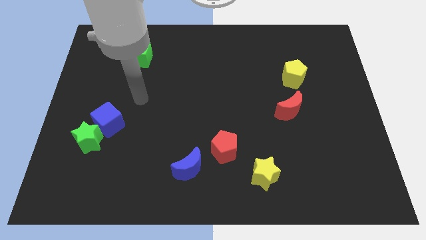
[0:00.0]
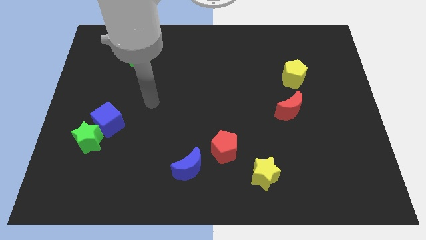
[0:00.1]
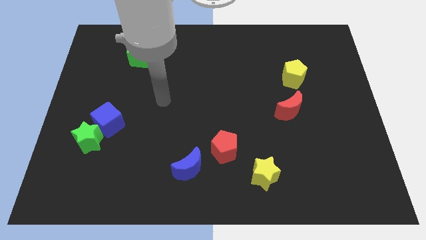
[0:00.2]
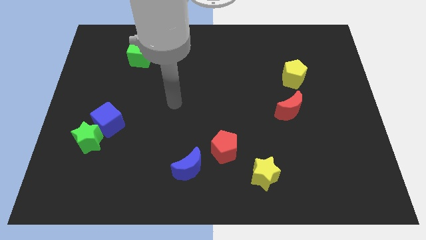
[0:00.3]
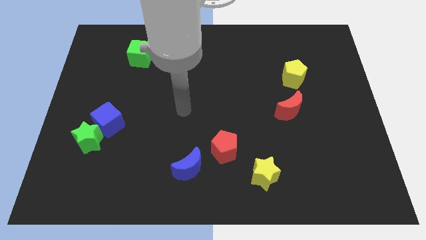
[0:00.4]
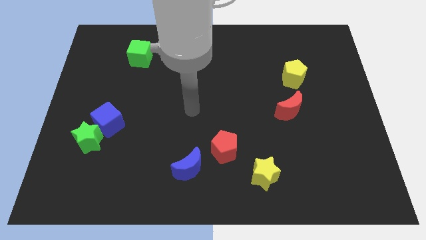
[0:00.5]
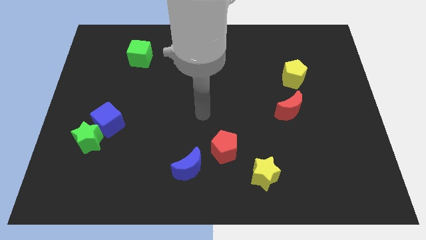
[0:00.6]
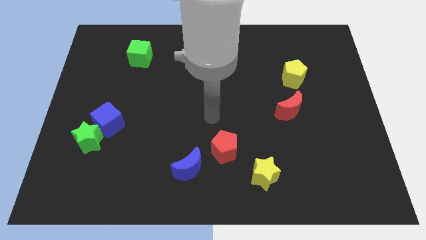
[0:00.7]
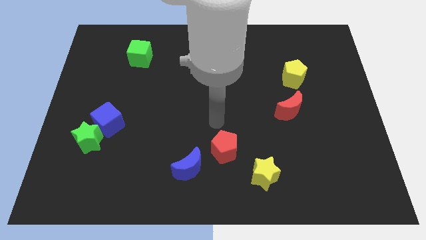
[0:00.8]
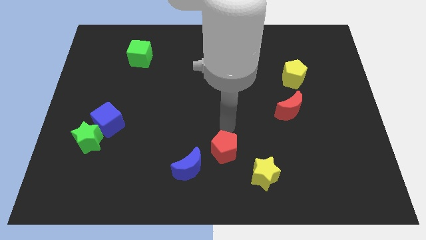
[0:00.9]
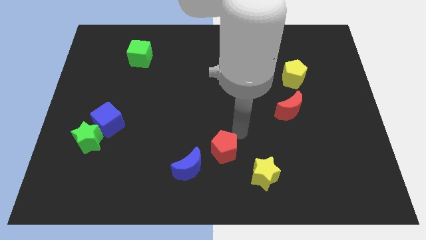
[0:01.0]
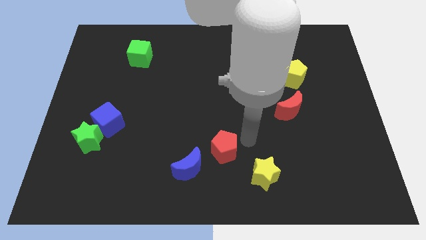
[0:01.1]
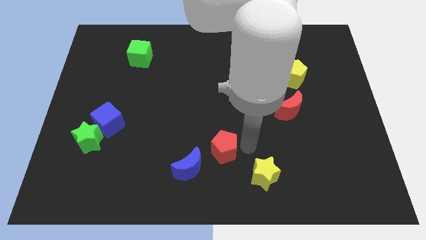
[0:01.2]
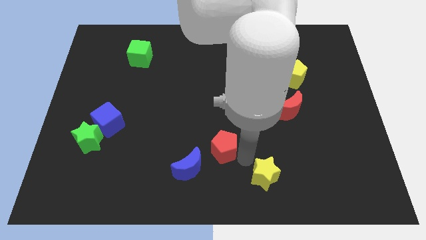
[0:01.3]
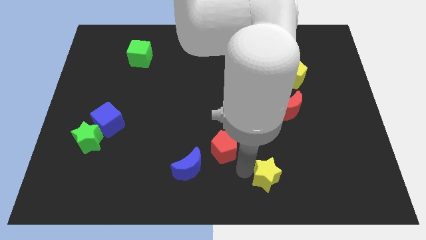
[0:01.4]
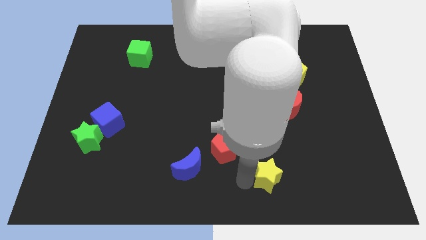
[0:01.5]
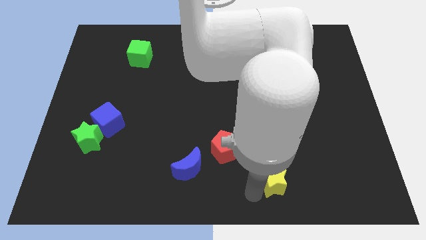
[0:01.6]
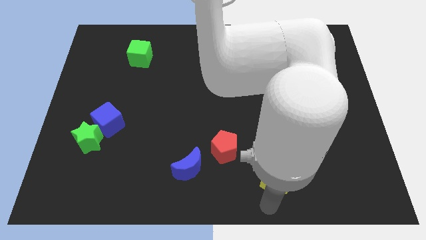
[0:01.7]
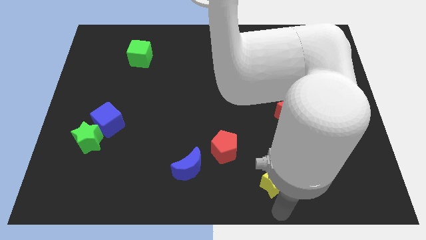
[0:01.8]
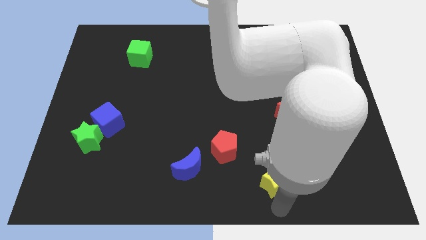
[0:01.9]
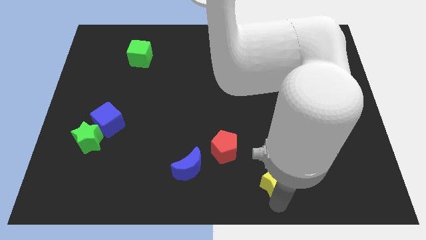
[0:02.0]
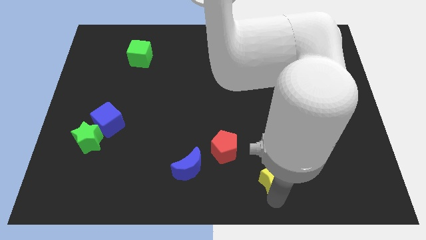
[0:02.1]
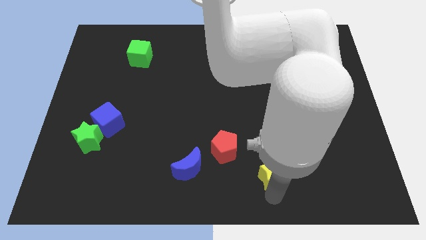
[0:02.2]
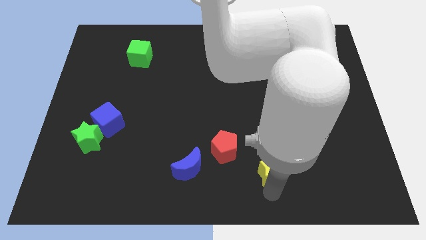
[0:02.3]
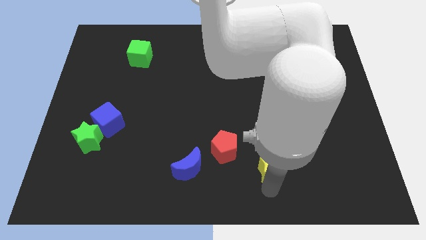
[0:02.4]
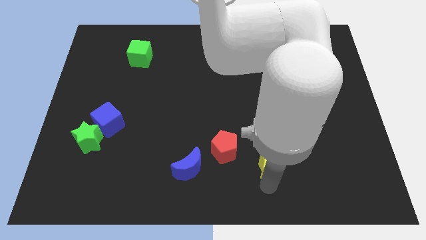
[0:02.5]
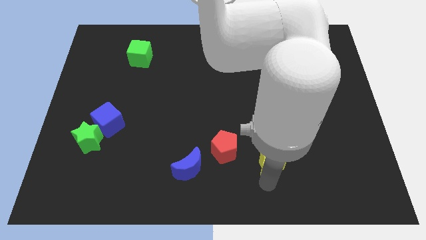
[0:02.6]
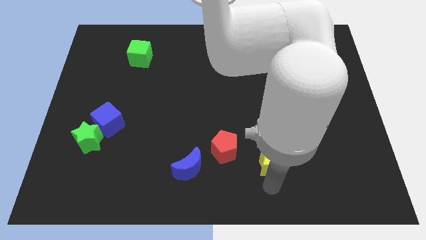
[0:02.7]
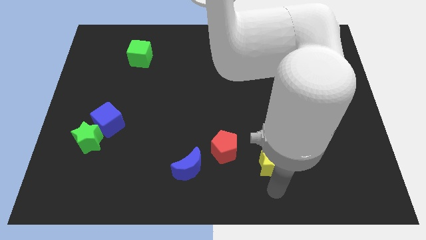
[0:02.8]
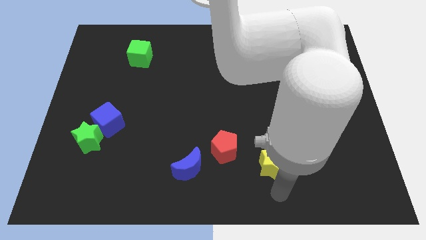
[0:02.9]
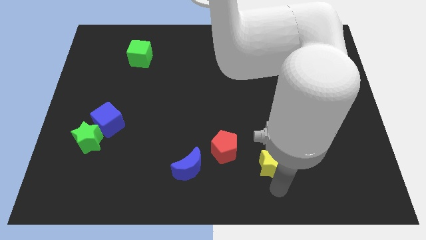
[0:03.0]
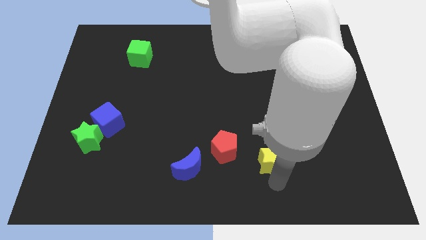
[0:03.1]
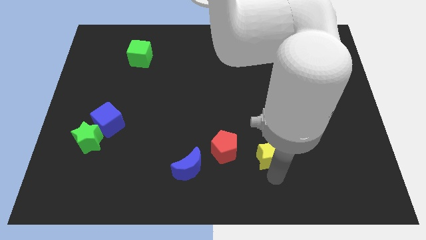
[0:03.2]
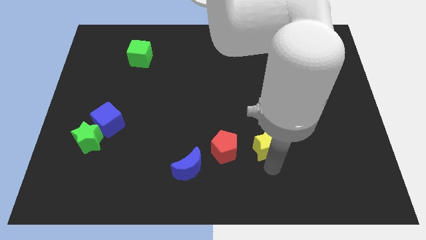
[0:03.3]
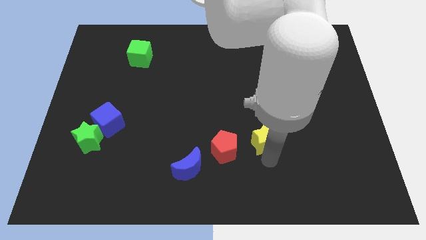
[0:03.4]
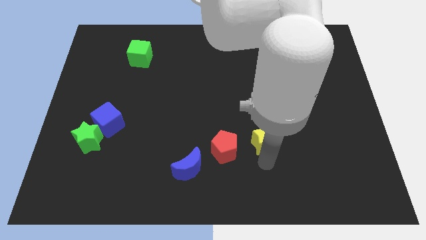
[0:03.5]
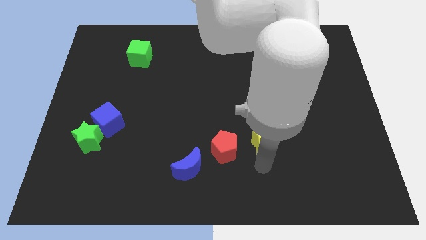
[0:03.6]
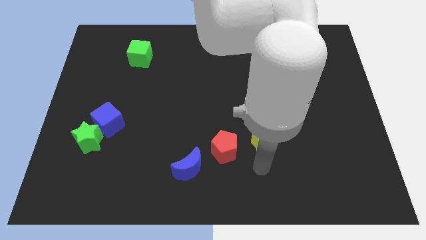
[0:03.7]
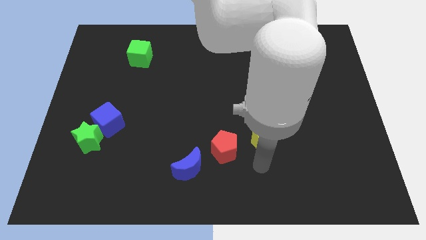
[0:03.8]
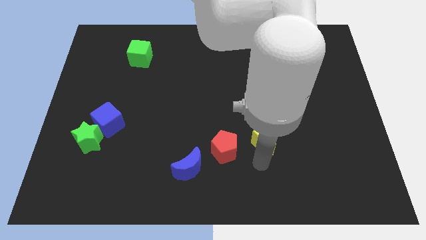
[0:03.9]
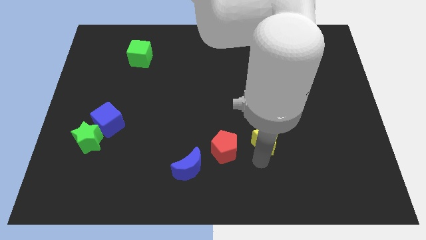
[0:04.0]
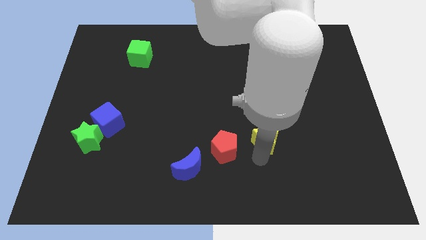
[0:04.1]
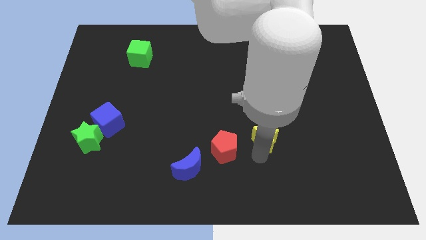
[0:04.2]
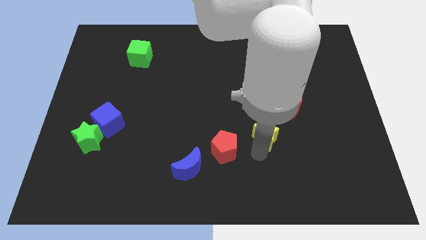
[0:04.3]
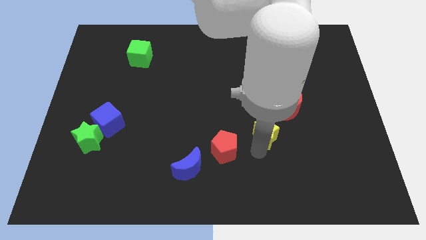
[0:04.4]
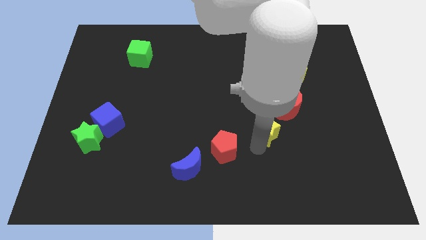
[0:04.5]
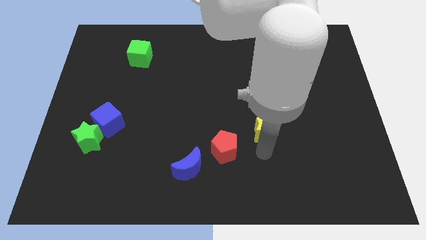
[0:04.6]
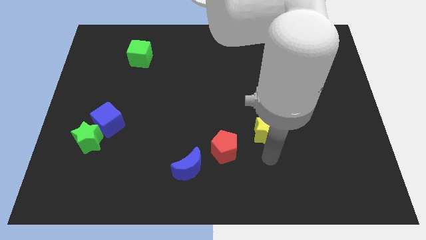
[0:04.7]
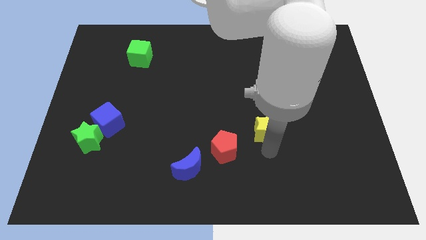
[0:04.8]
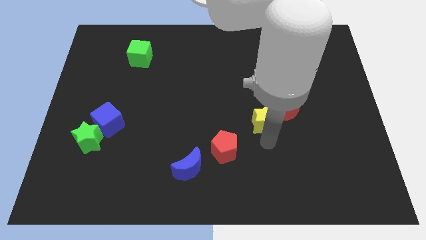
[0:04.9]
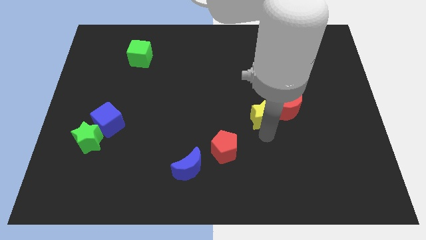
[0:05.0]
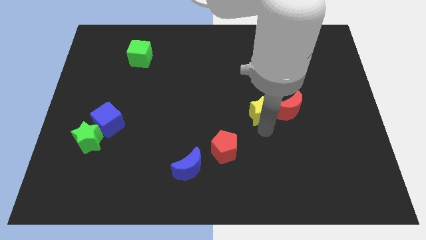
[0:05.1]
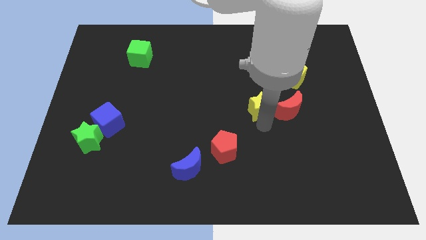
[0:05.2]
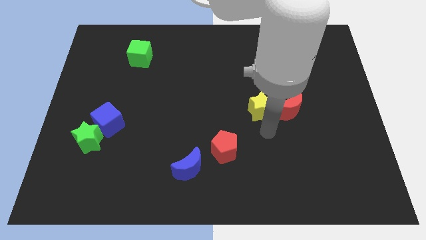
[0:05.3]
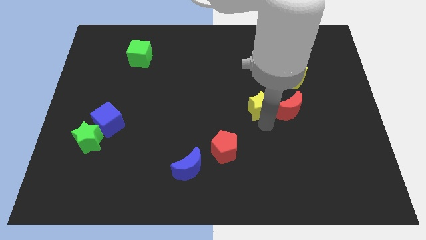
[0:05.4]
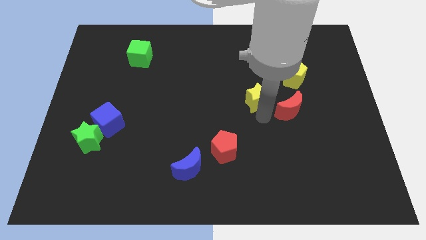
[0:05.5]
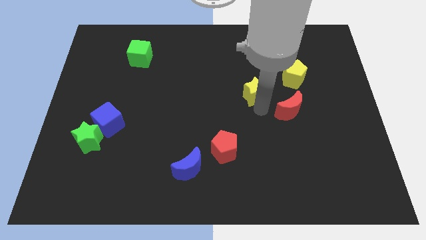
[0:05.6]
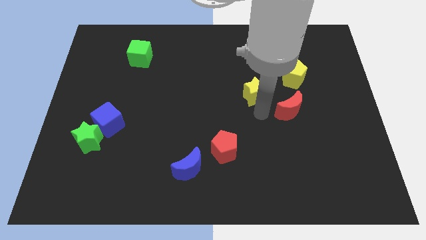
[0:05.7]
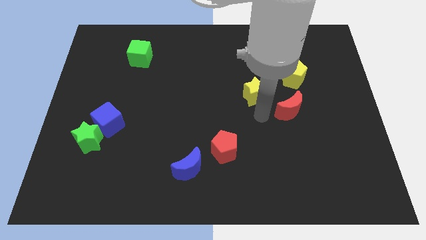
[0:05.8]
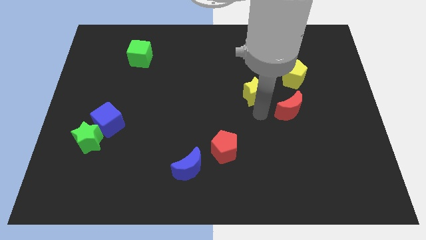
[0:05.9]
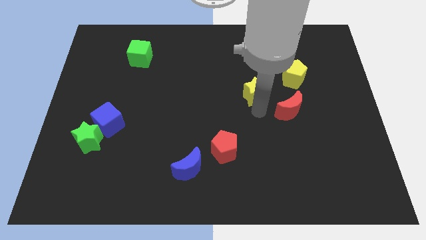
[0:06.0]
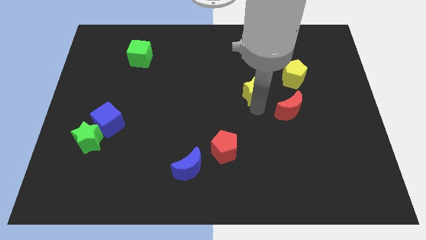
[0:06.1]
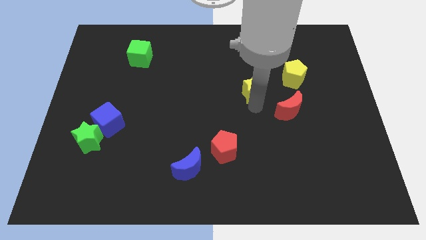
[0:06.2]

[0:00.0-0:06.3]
move the yellow star just left of the yellow pentagon

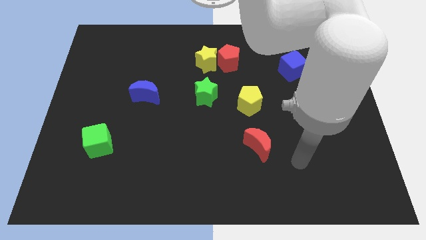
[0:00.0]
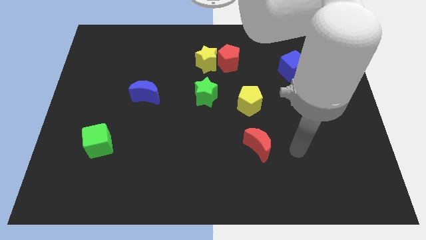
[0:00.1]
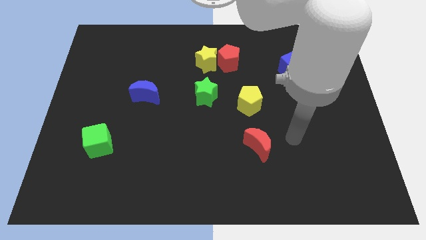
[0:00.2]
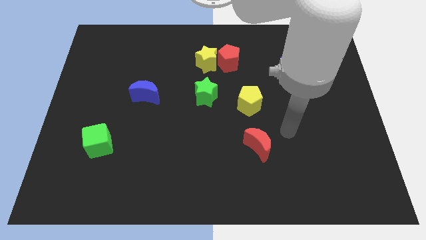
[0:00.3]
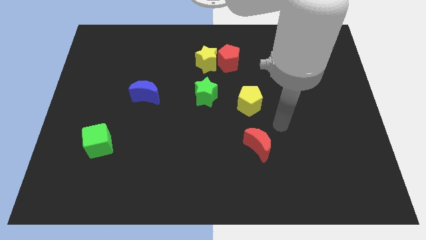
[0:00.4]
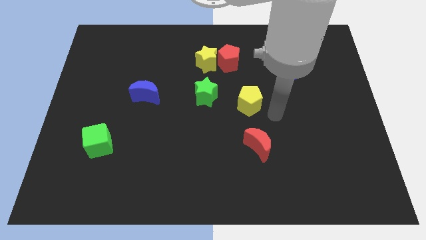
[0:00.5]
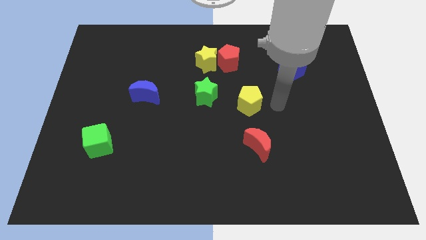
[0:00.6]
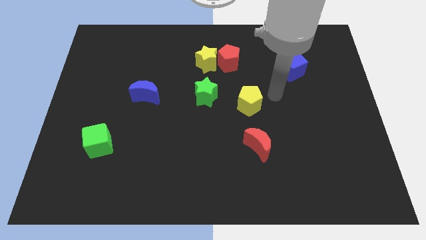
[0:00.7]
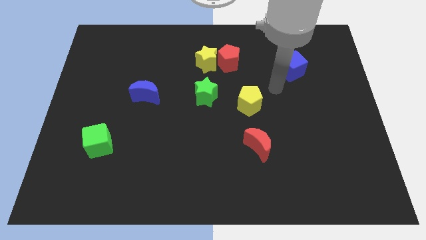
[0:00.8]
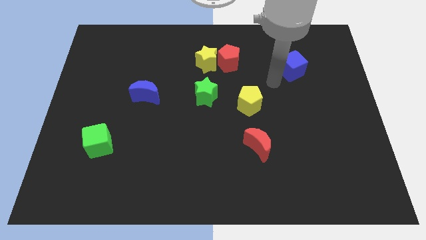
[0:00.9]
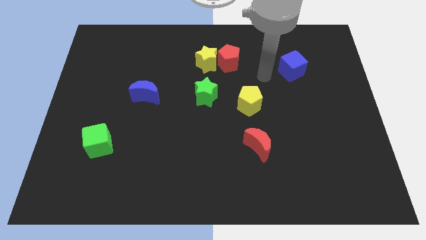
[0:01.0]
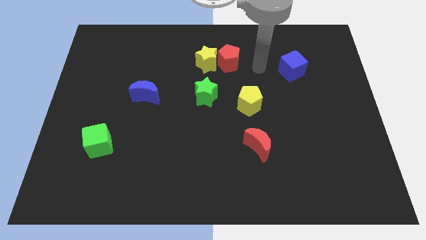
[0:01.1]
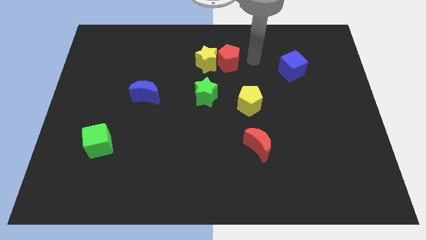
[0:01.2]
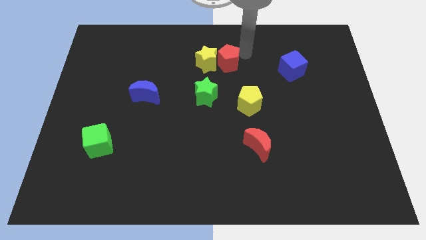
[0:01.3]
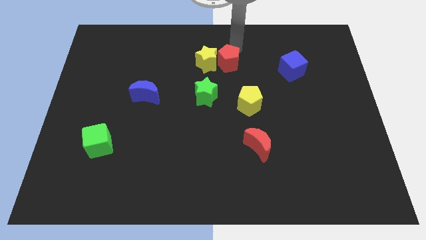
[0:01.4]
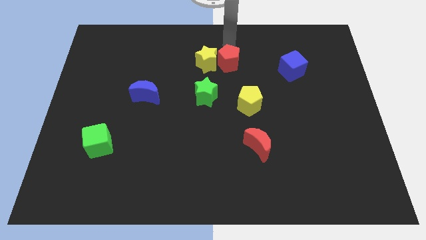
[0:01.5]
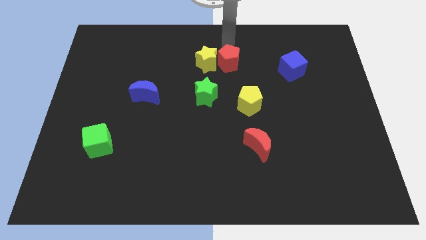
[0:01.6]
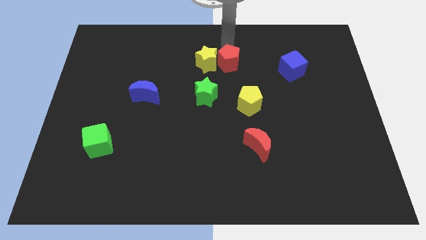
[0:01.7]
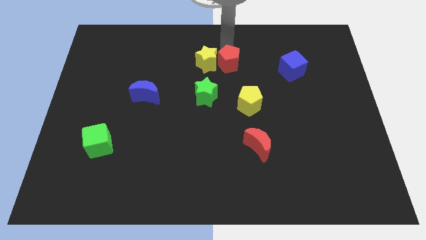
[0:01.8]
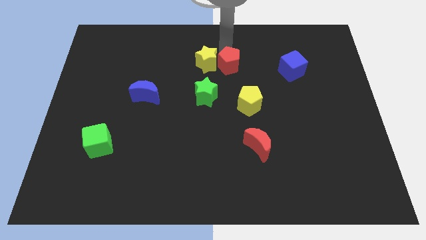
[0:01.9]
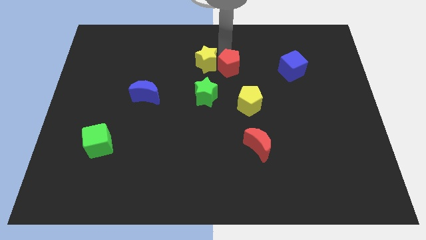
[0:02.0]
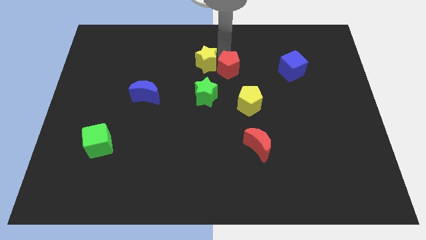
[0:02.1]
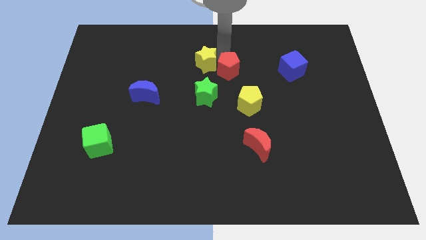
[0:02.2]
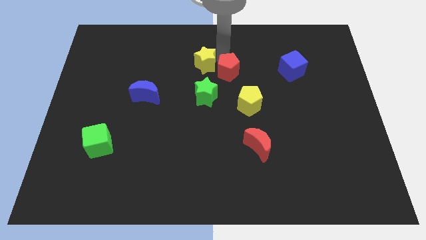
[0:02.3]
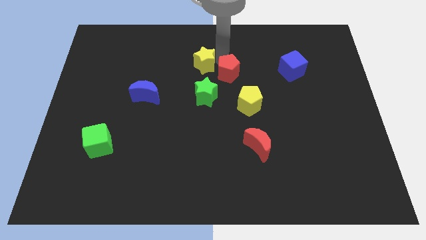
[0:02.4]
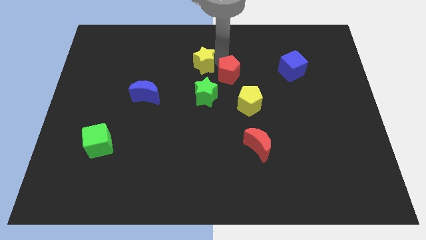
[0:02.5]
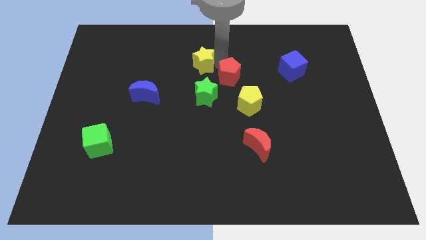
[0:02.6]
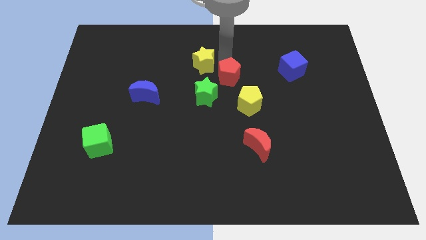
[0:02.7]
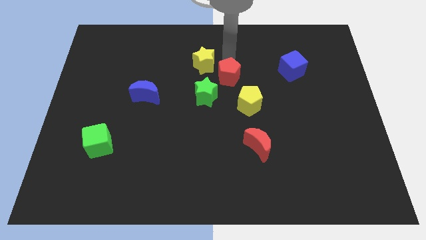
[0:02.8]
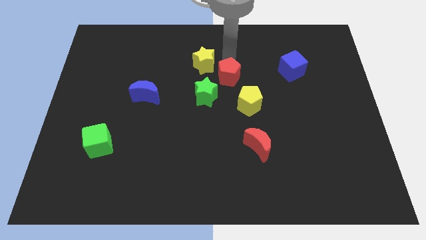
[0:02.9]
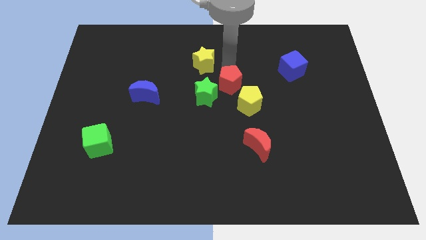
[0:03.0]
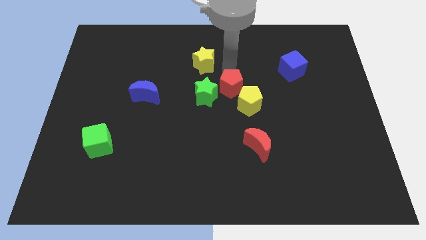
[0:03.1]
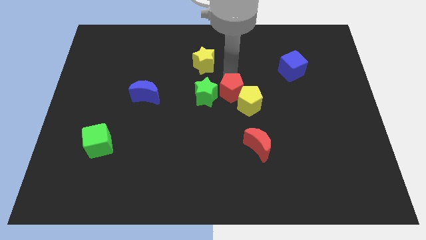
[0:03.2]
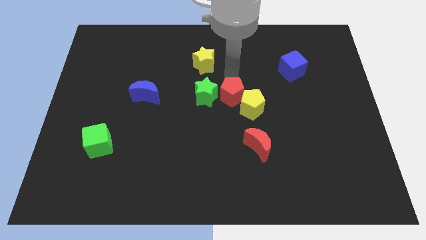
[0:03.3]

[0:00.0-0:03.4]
push the red pentagon to the bottom right side of the green star
